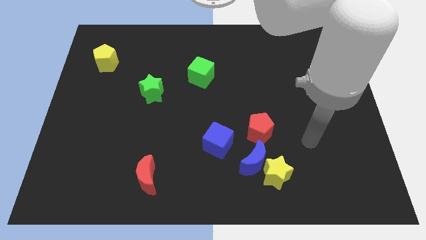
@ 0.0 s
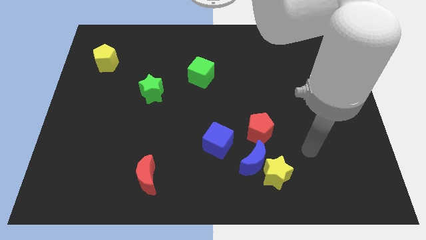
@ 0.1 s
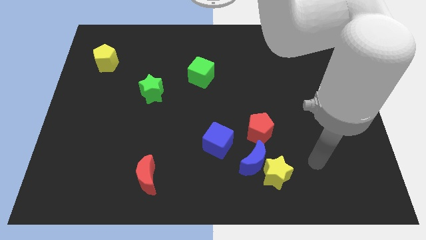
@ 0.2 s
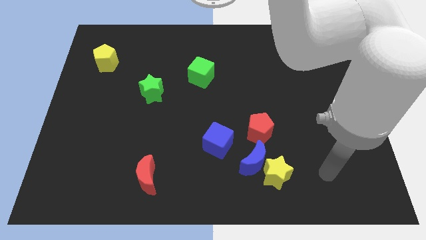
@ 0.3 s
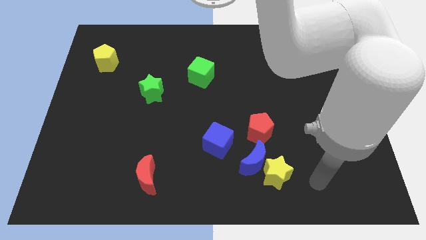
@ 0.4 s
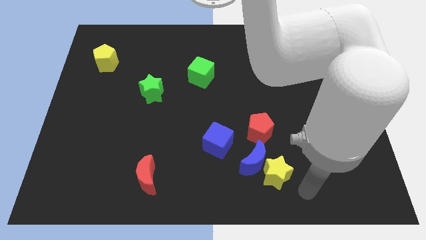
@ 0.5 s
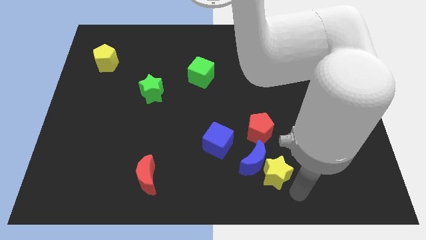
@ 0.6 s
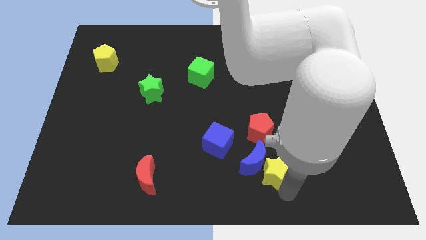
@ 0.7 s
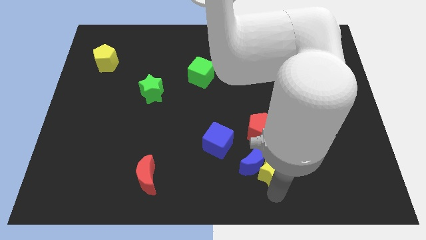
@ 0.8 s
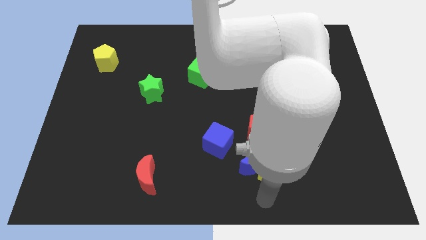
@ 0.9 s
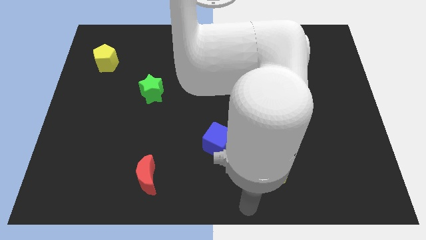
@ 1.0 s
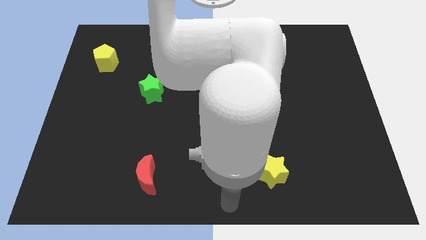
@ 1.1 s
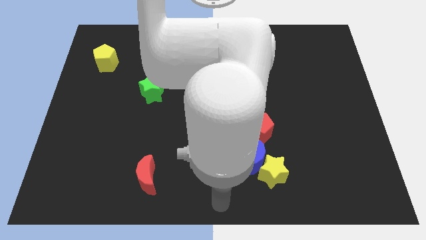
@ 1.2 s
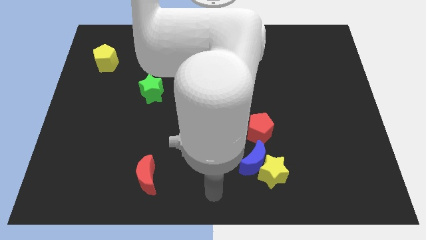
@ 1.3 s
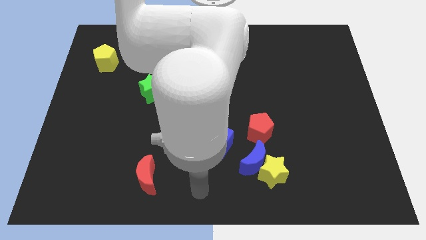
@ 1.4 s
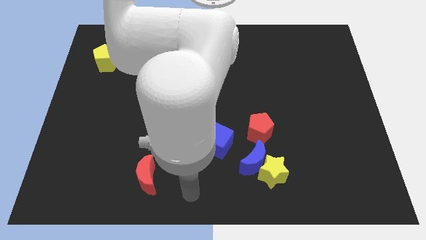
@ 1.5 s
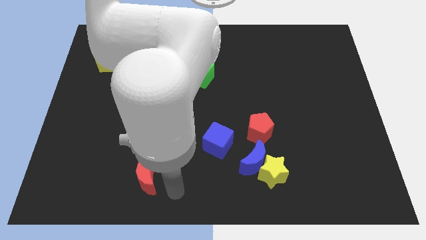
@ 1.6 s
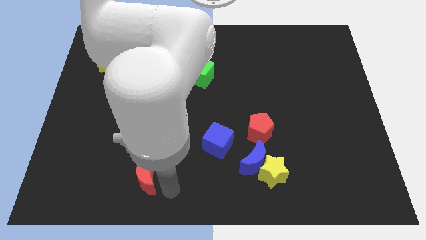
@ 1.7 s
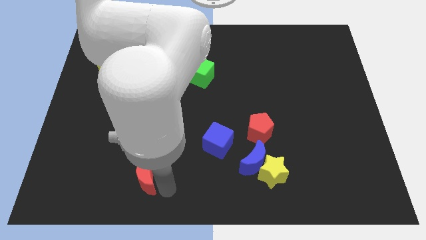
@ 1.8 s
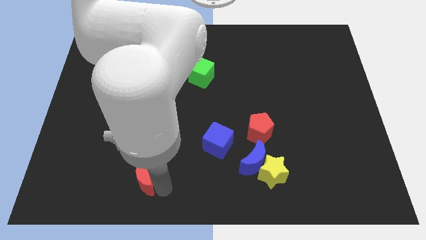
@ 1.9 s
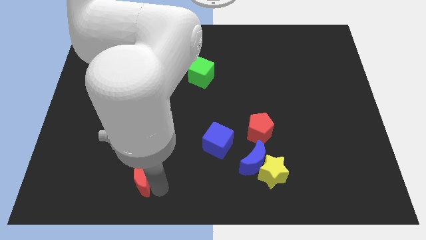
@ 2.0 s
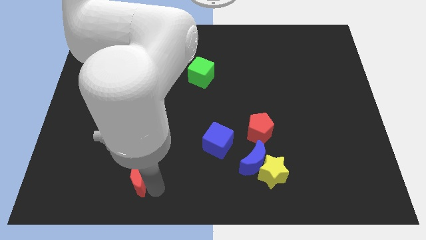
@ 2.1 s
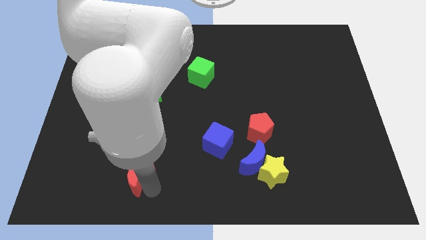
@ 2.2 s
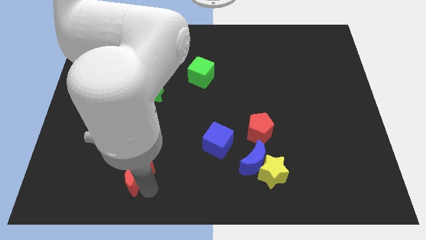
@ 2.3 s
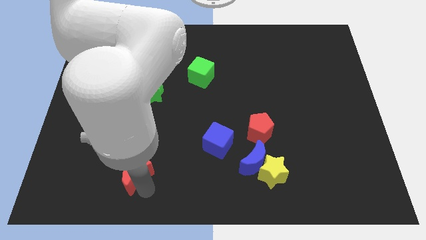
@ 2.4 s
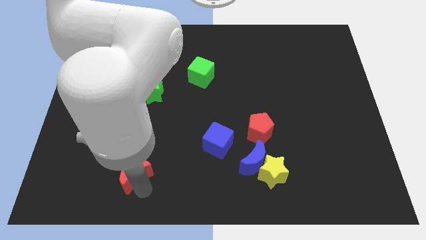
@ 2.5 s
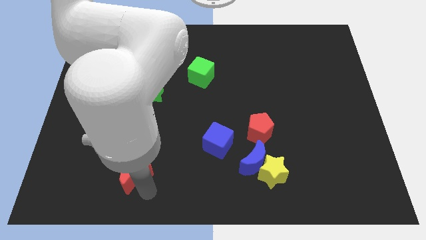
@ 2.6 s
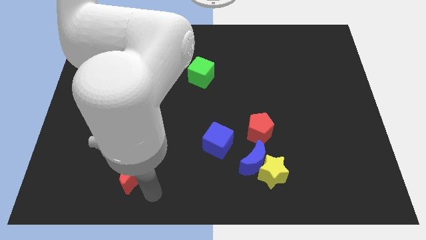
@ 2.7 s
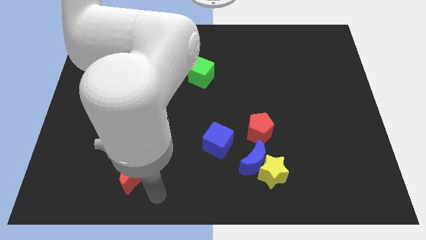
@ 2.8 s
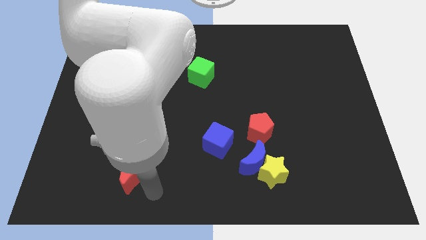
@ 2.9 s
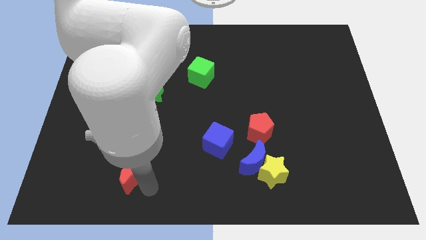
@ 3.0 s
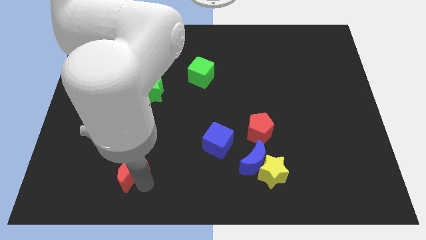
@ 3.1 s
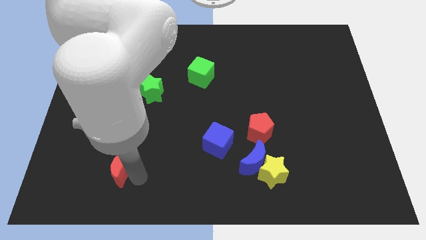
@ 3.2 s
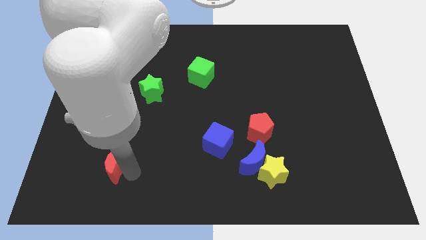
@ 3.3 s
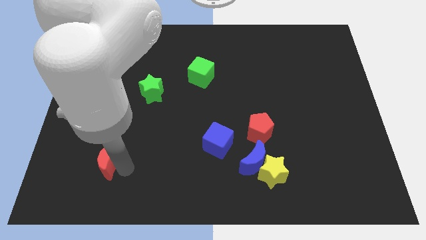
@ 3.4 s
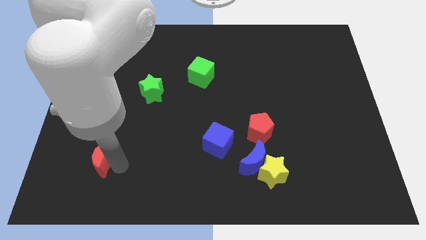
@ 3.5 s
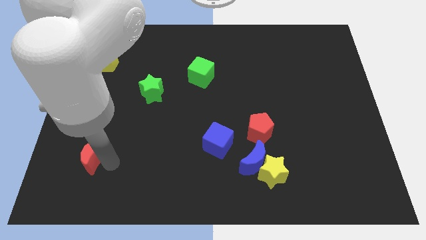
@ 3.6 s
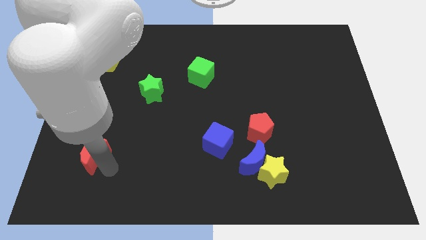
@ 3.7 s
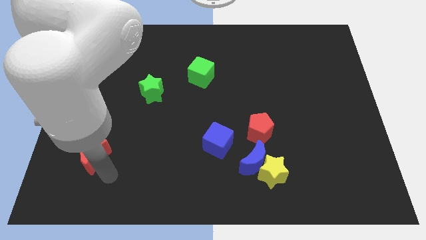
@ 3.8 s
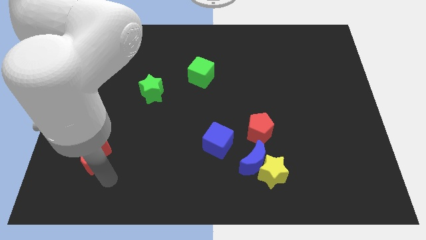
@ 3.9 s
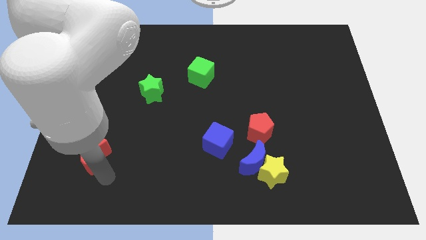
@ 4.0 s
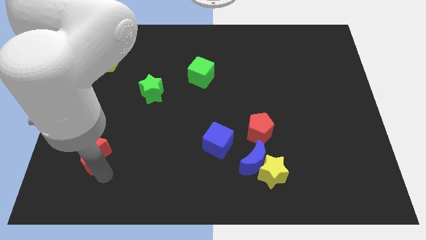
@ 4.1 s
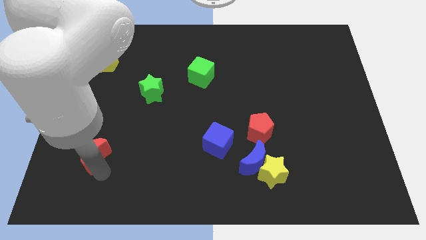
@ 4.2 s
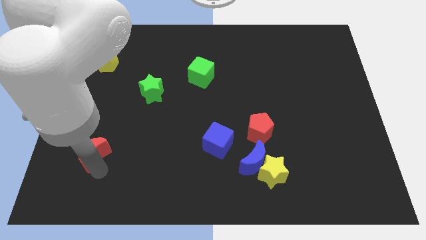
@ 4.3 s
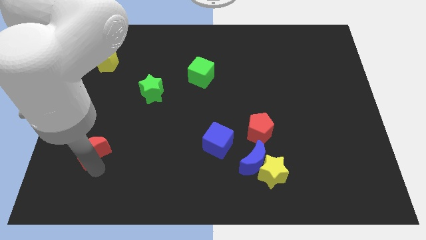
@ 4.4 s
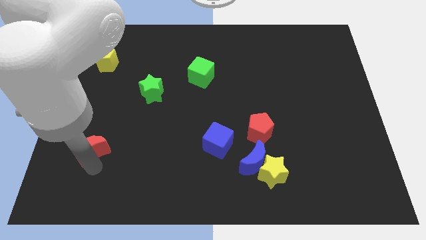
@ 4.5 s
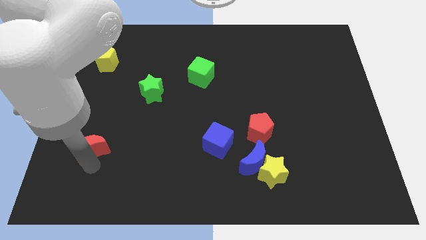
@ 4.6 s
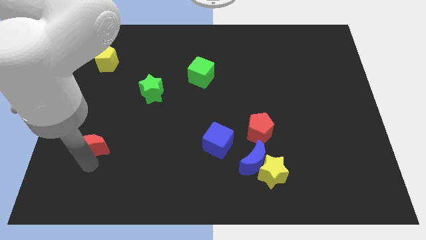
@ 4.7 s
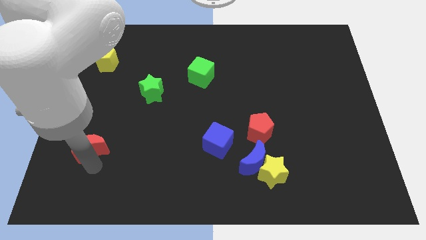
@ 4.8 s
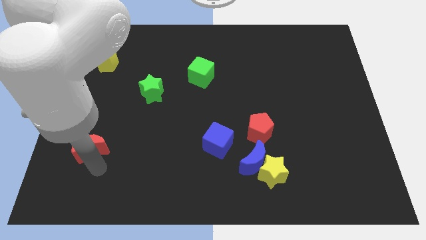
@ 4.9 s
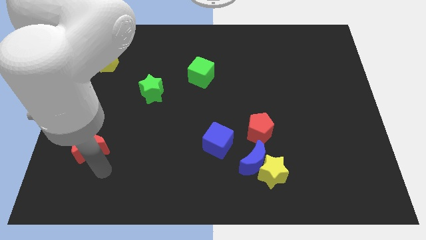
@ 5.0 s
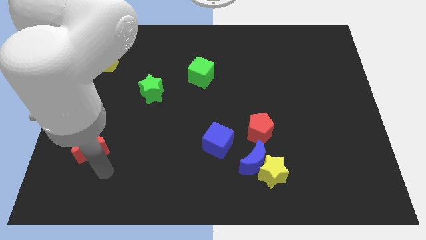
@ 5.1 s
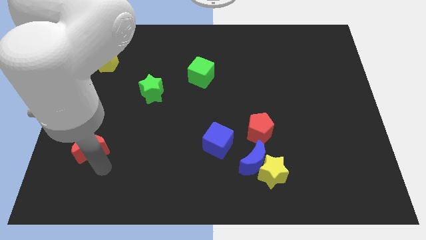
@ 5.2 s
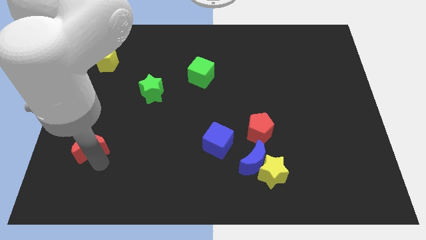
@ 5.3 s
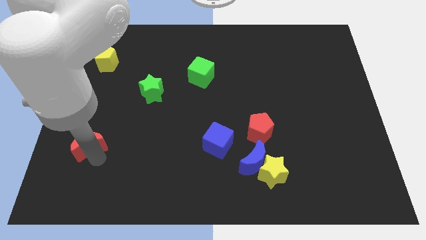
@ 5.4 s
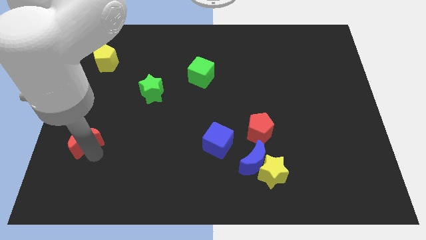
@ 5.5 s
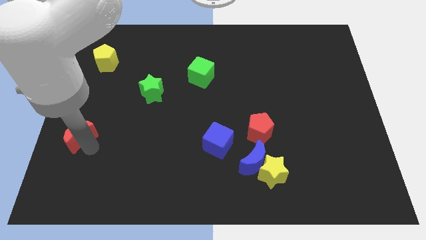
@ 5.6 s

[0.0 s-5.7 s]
move the red moon to the left side of the board

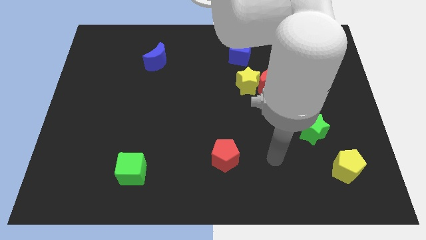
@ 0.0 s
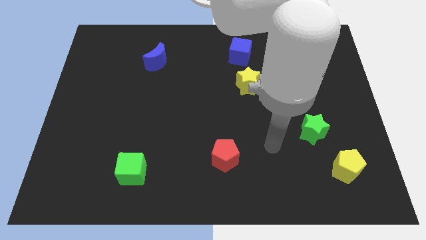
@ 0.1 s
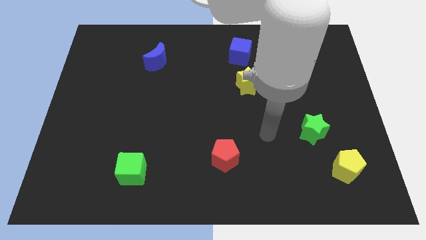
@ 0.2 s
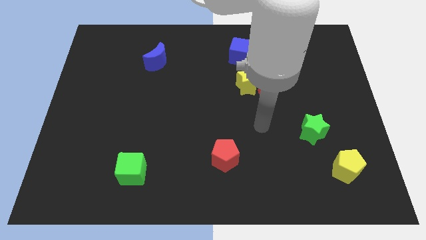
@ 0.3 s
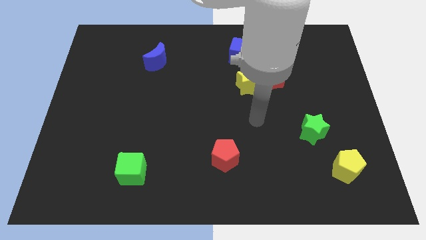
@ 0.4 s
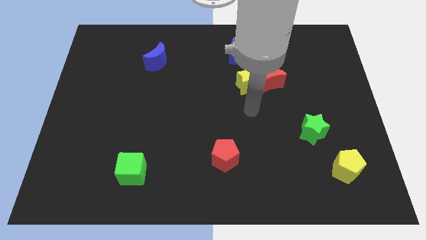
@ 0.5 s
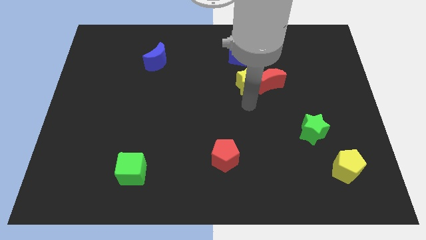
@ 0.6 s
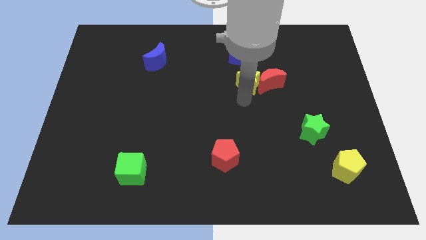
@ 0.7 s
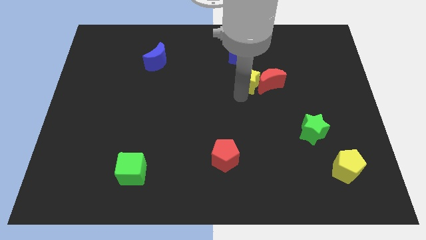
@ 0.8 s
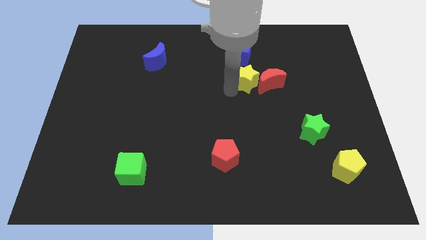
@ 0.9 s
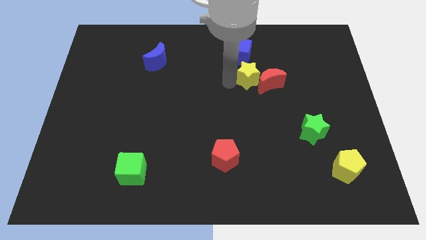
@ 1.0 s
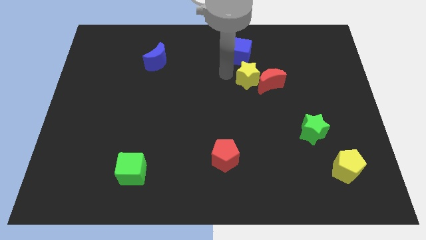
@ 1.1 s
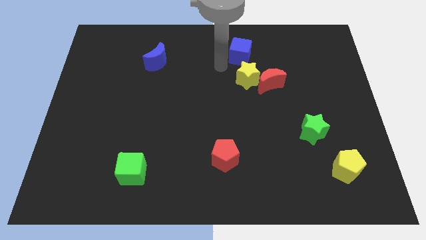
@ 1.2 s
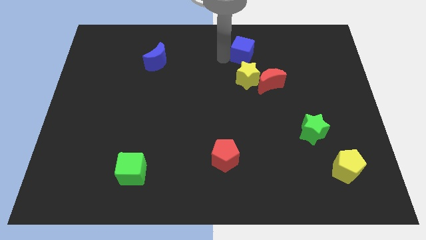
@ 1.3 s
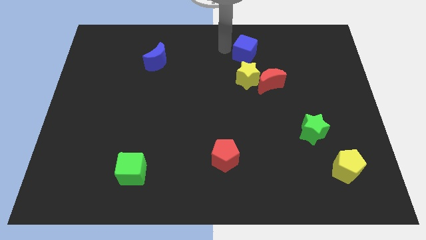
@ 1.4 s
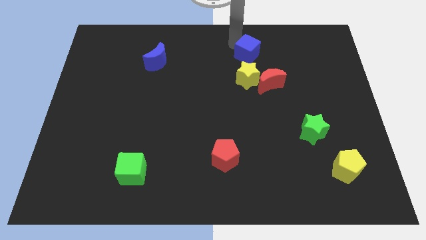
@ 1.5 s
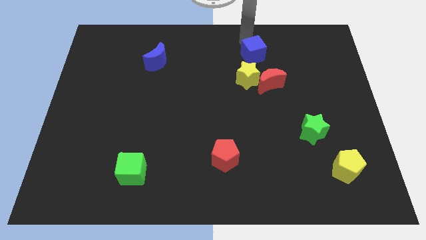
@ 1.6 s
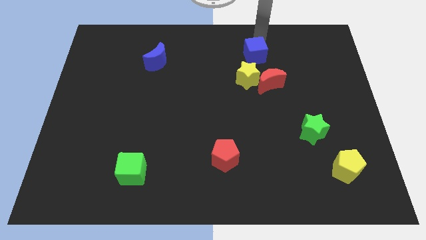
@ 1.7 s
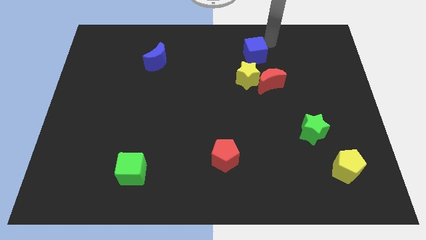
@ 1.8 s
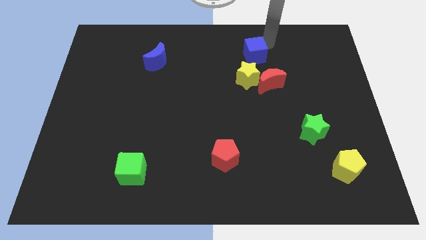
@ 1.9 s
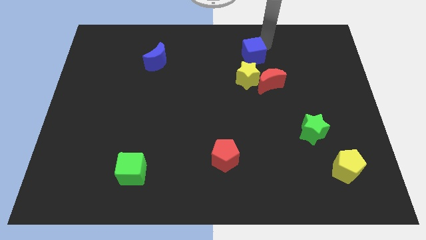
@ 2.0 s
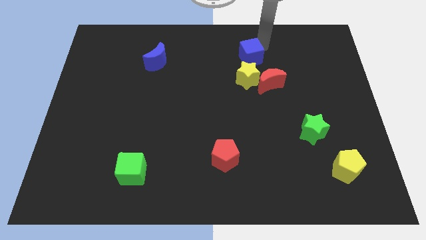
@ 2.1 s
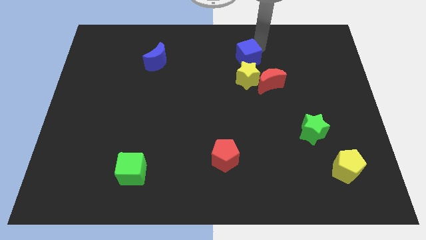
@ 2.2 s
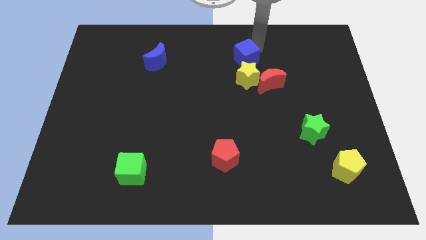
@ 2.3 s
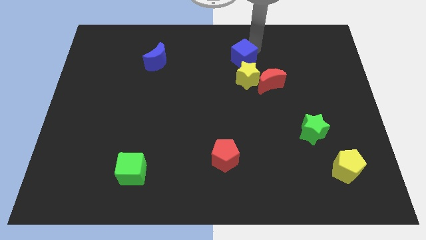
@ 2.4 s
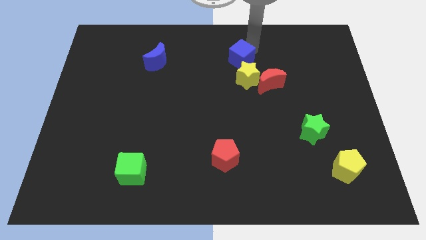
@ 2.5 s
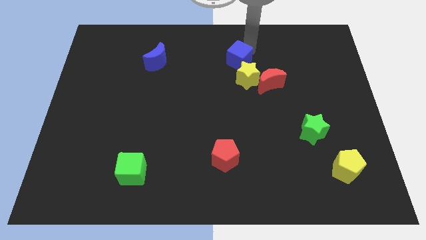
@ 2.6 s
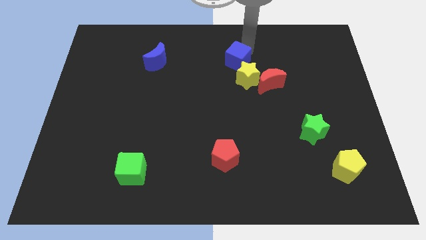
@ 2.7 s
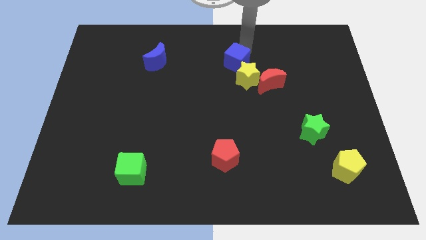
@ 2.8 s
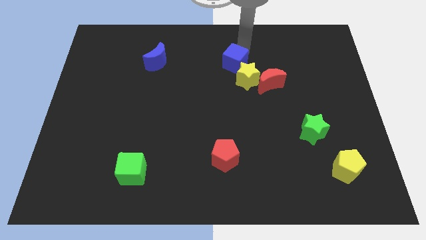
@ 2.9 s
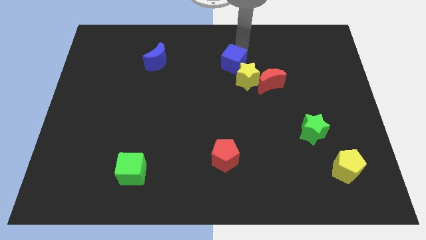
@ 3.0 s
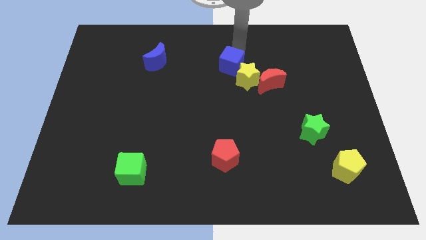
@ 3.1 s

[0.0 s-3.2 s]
slide the blue cube to the middle
